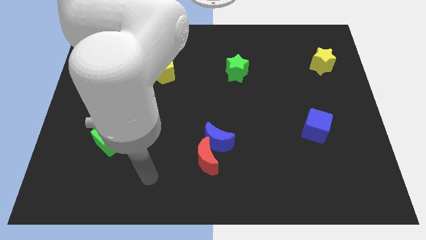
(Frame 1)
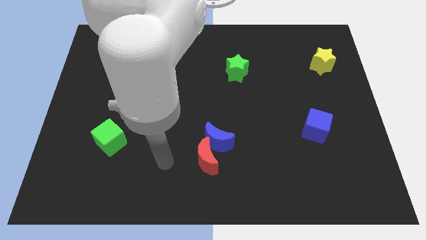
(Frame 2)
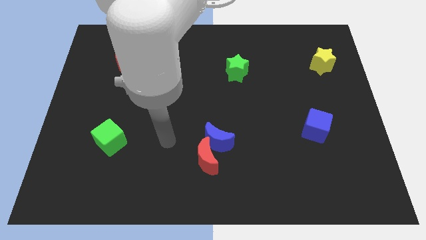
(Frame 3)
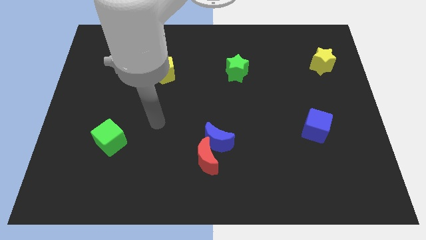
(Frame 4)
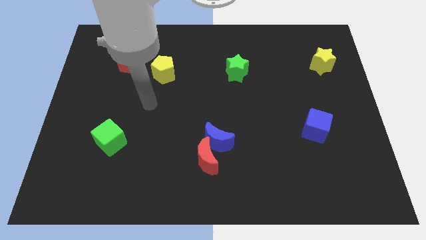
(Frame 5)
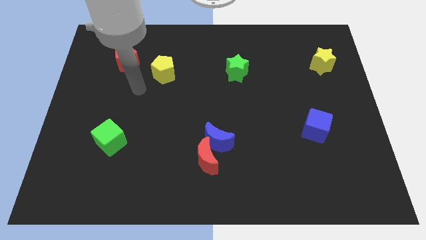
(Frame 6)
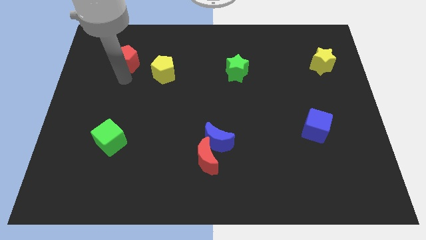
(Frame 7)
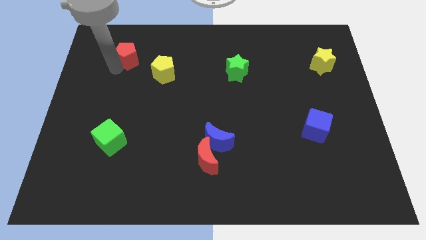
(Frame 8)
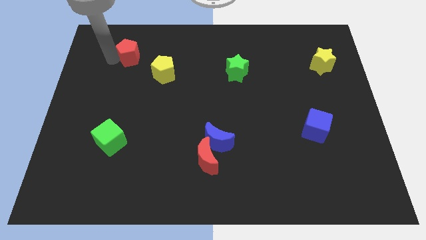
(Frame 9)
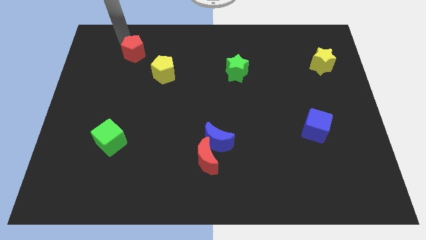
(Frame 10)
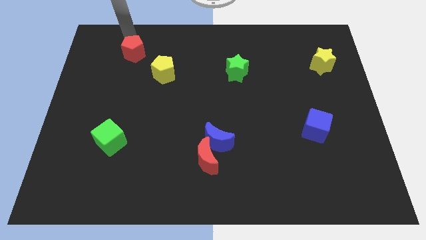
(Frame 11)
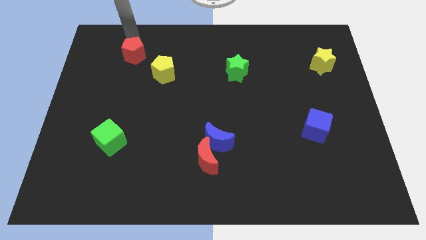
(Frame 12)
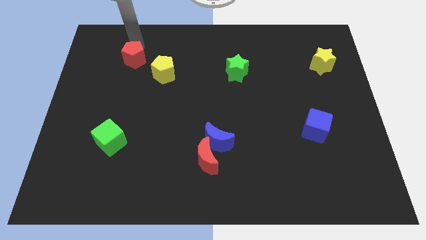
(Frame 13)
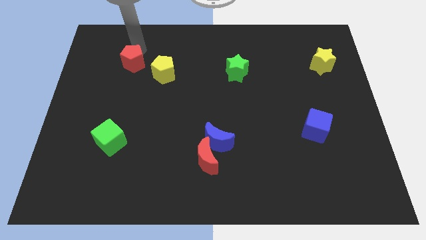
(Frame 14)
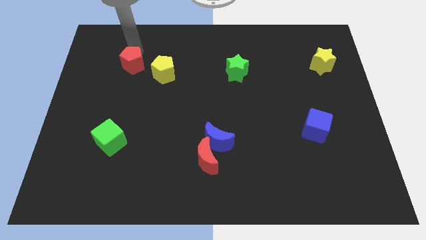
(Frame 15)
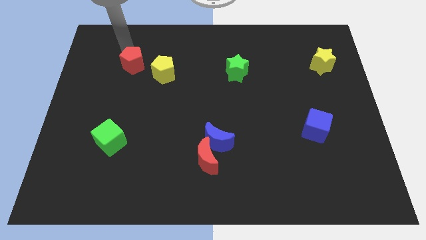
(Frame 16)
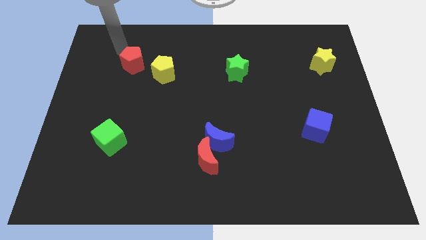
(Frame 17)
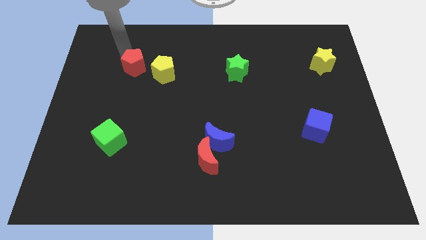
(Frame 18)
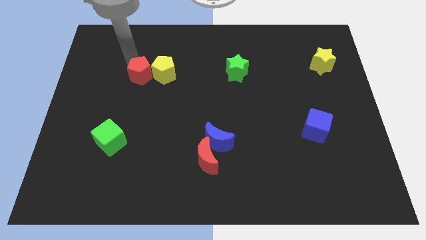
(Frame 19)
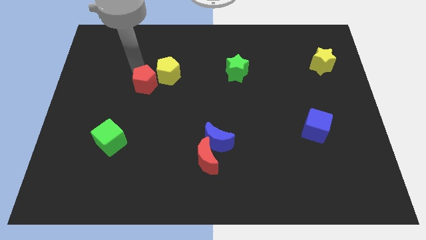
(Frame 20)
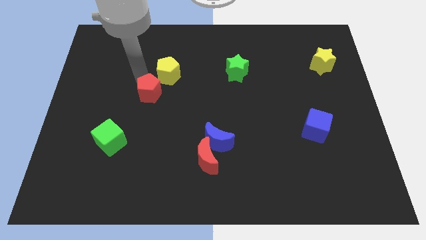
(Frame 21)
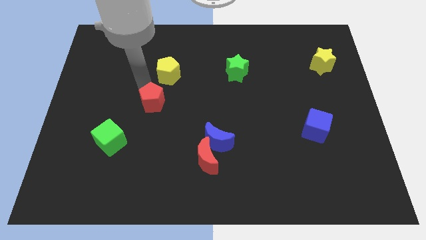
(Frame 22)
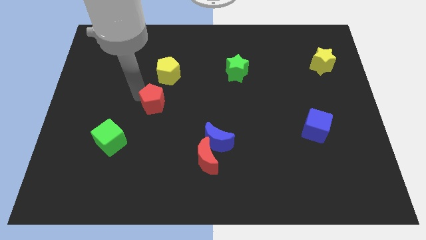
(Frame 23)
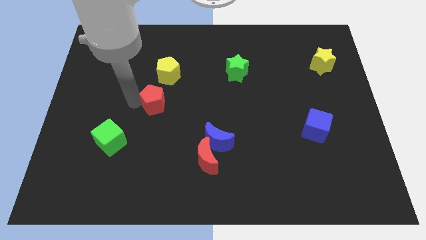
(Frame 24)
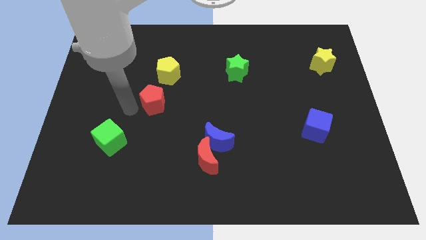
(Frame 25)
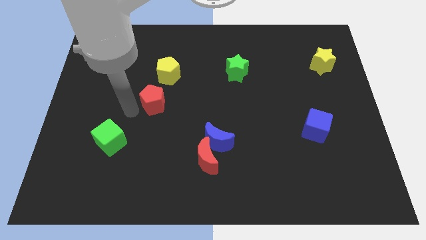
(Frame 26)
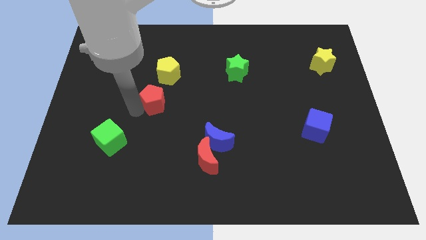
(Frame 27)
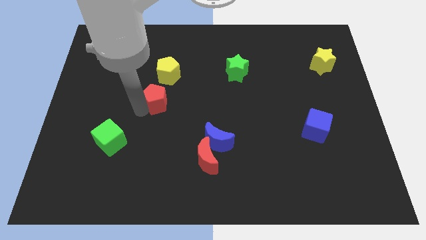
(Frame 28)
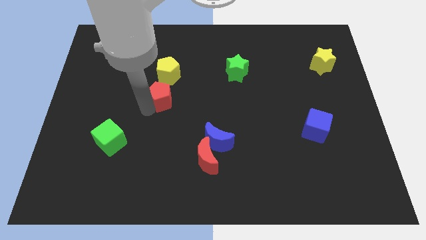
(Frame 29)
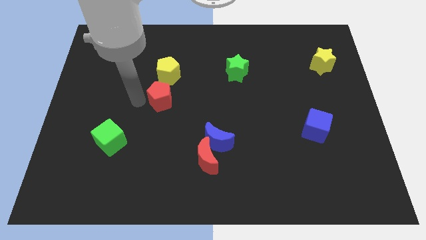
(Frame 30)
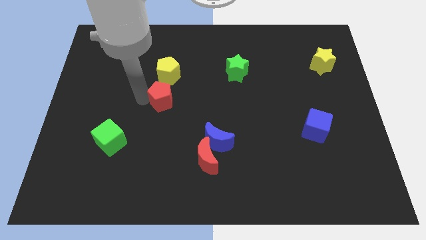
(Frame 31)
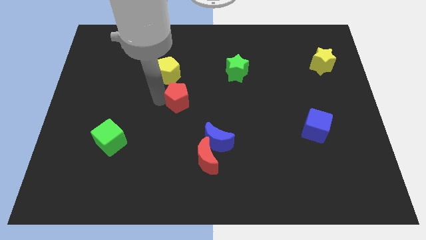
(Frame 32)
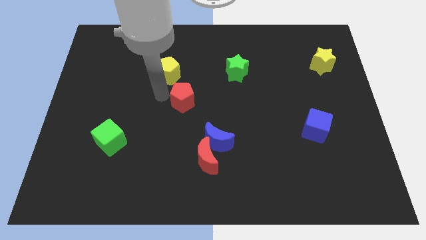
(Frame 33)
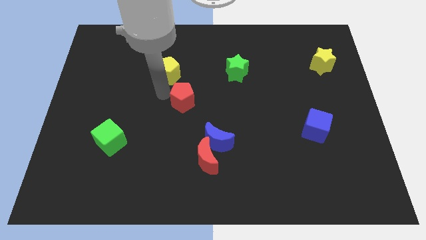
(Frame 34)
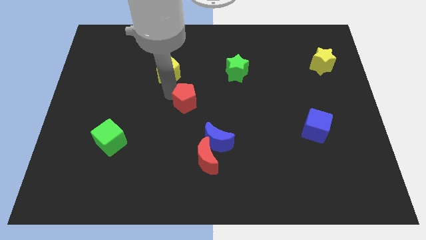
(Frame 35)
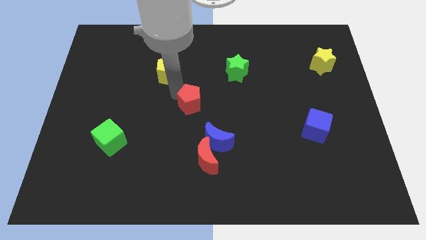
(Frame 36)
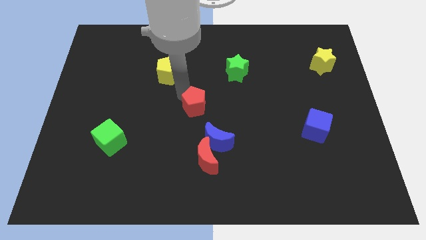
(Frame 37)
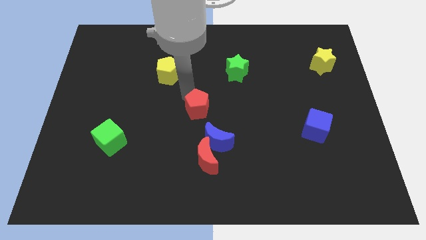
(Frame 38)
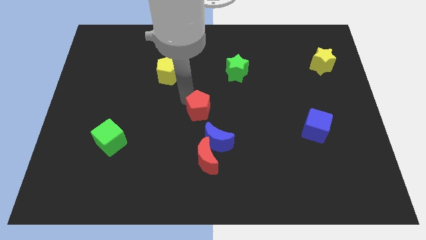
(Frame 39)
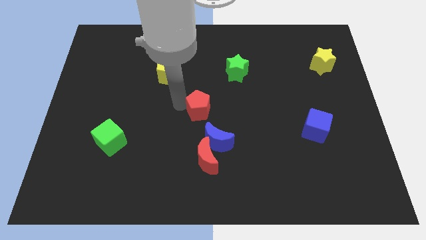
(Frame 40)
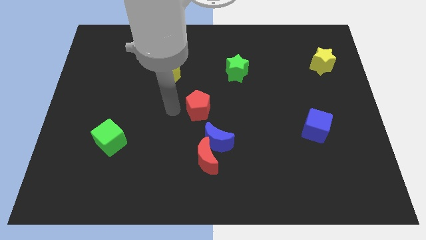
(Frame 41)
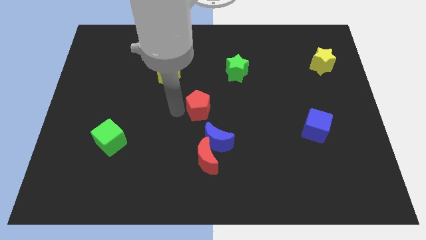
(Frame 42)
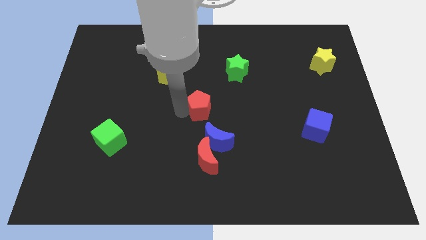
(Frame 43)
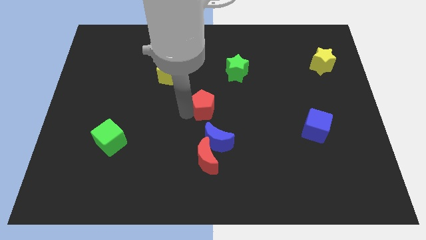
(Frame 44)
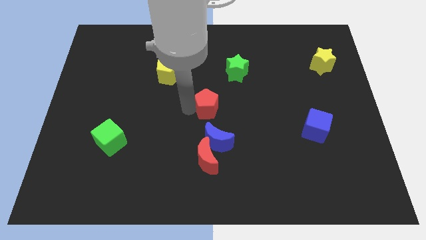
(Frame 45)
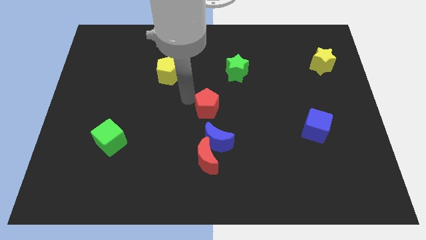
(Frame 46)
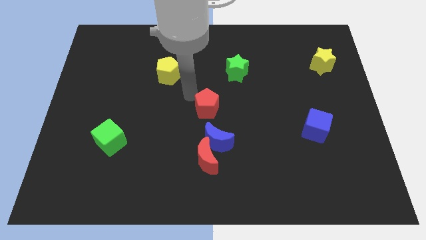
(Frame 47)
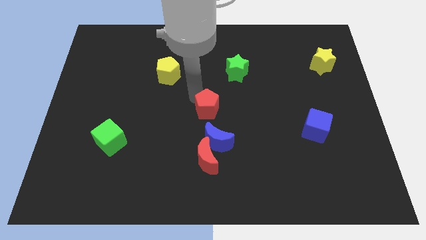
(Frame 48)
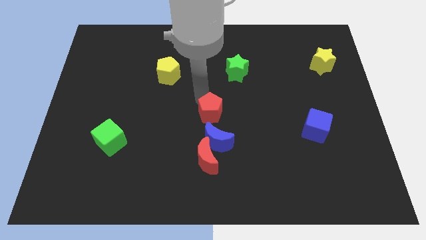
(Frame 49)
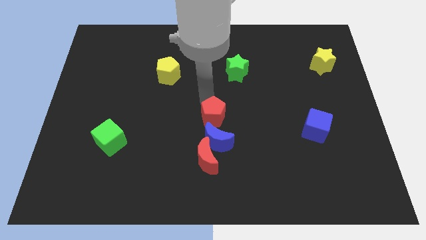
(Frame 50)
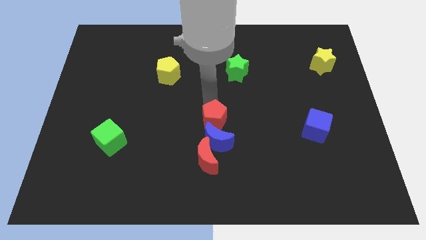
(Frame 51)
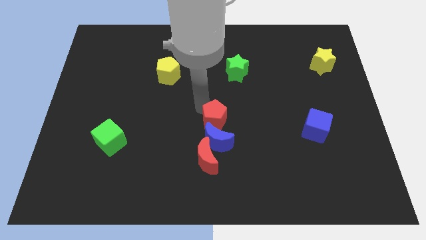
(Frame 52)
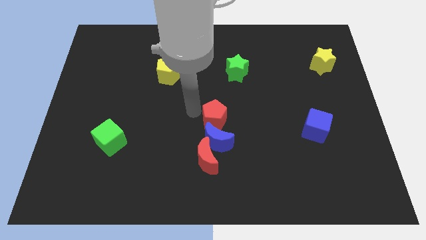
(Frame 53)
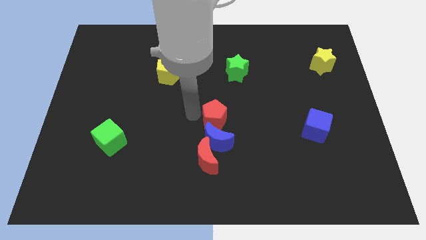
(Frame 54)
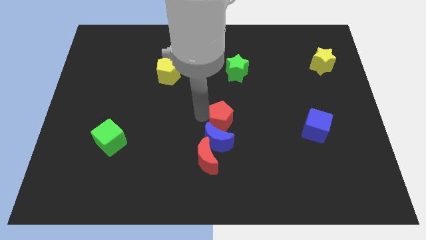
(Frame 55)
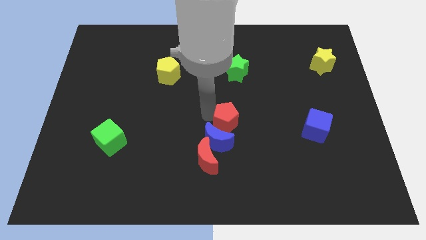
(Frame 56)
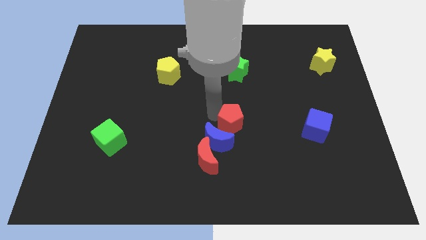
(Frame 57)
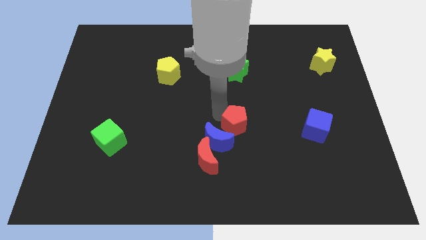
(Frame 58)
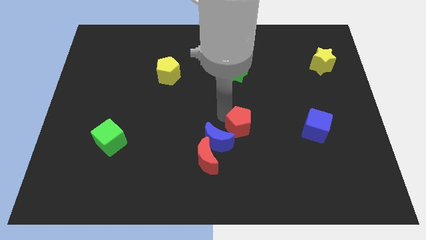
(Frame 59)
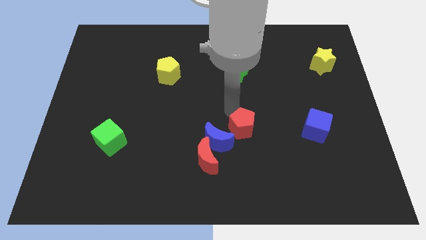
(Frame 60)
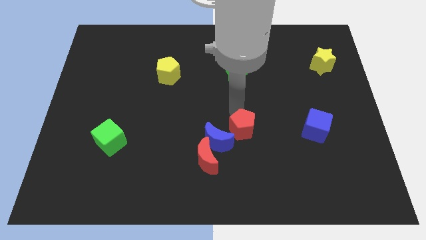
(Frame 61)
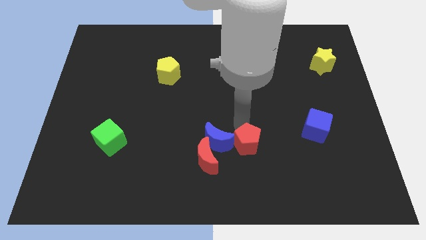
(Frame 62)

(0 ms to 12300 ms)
put the red pentagon just right of the red moon
